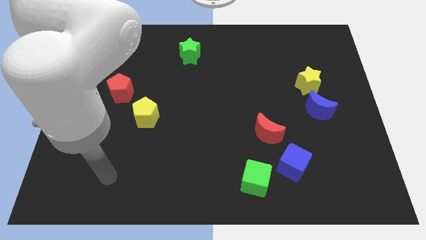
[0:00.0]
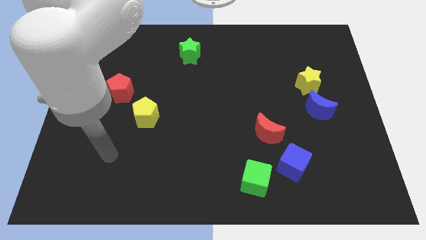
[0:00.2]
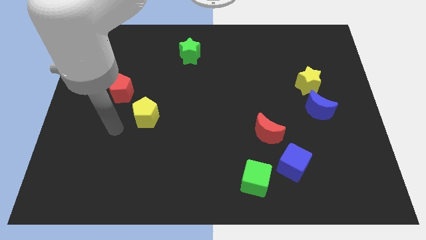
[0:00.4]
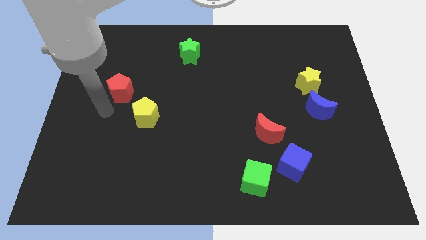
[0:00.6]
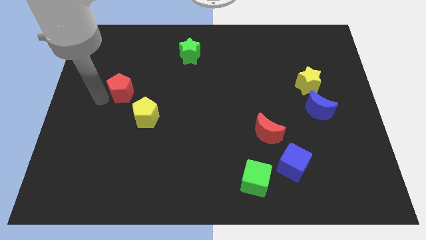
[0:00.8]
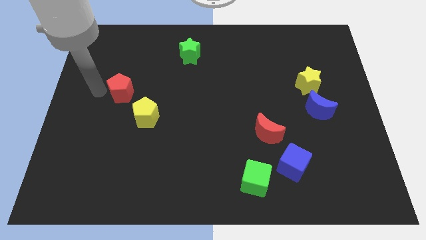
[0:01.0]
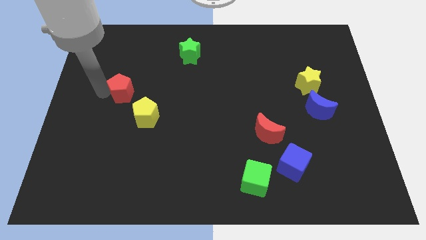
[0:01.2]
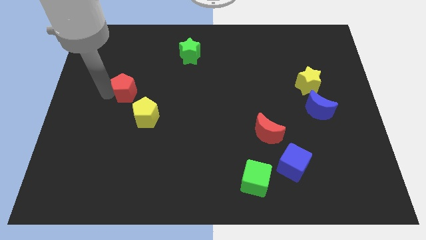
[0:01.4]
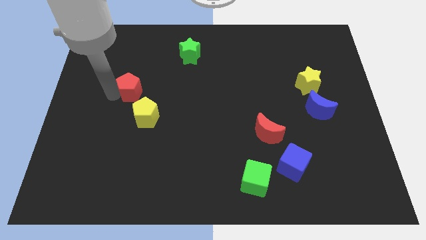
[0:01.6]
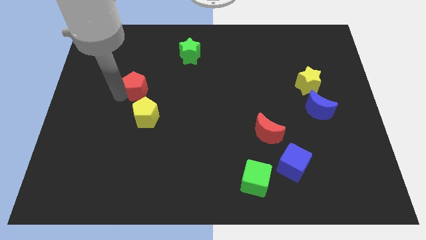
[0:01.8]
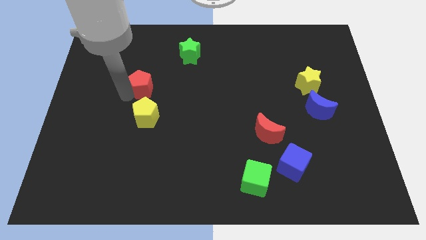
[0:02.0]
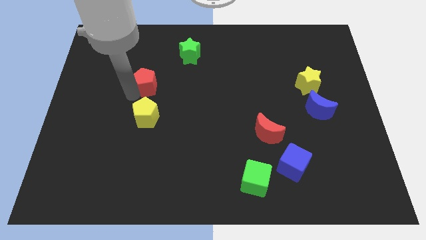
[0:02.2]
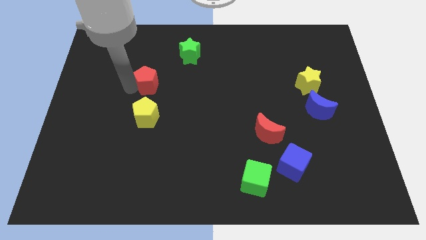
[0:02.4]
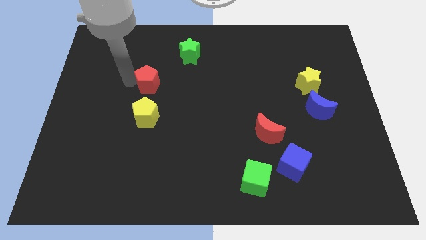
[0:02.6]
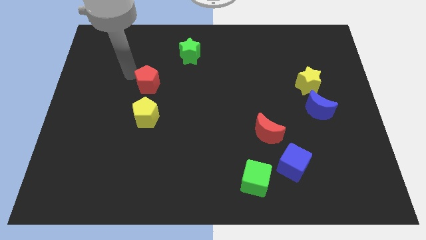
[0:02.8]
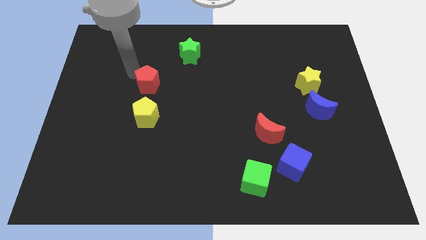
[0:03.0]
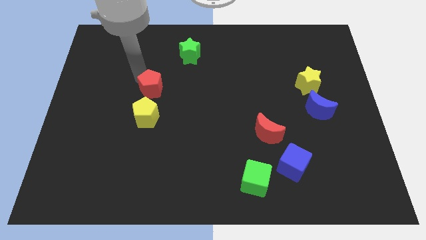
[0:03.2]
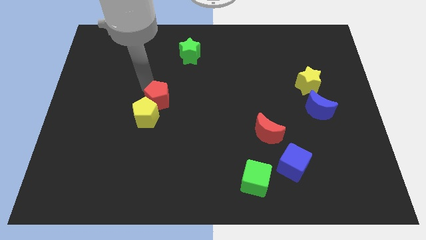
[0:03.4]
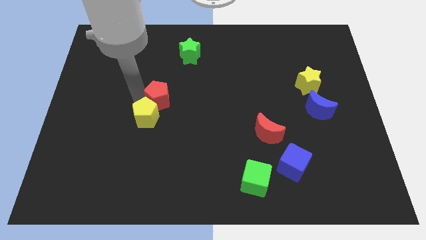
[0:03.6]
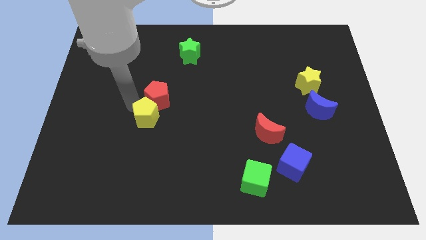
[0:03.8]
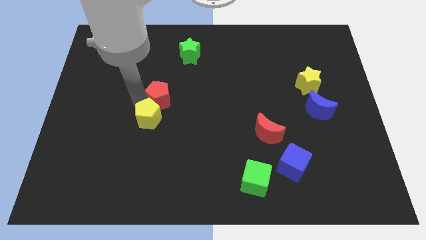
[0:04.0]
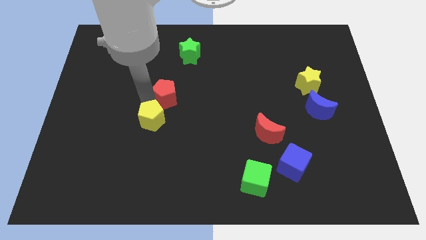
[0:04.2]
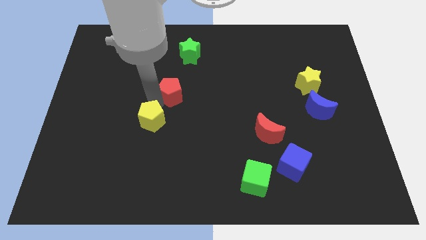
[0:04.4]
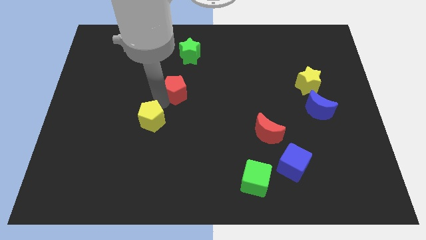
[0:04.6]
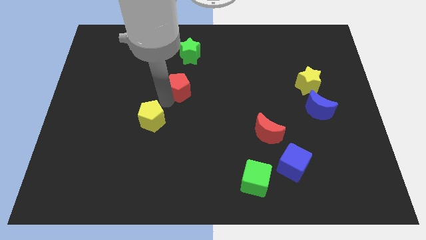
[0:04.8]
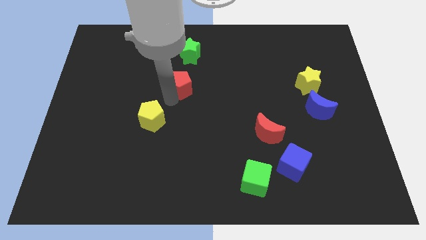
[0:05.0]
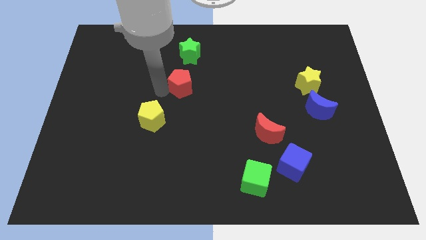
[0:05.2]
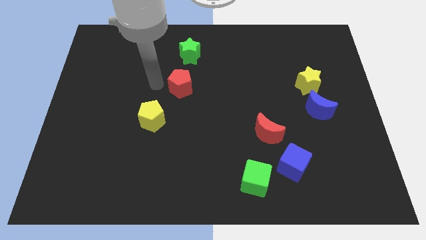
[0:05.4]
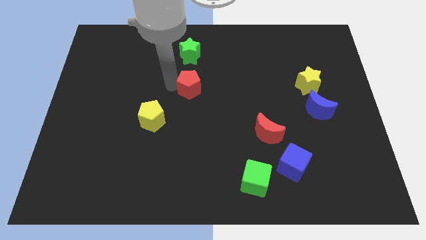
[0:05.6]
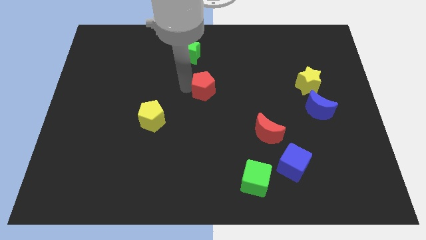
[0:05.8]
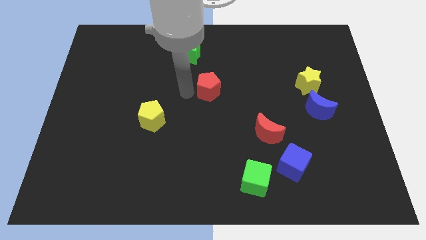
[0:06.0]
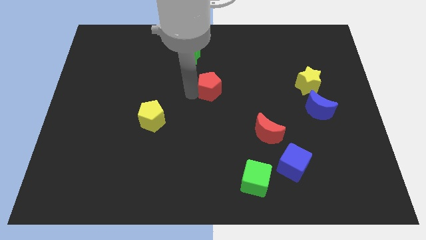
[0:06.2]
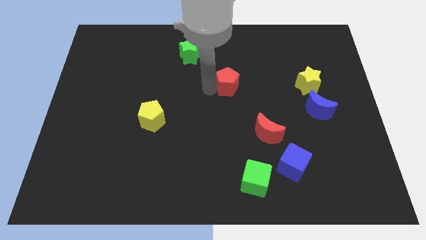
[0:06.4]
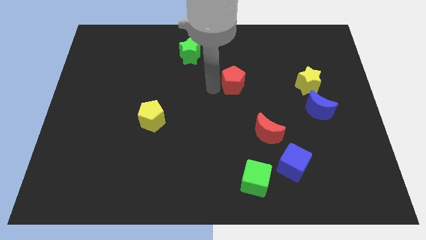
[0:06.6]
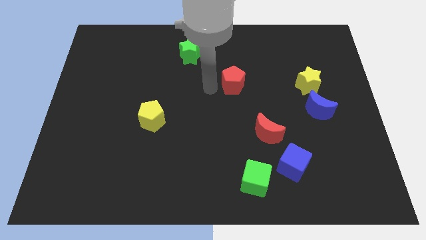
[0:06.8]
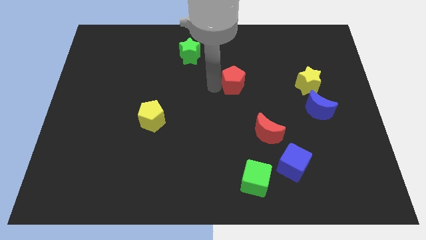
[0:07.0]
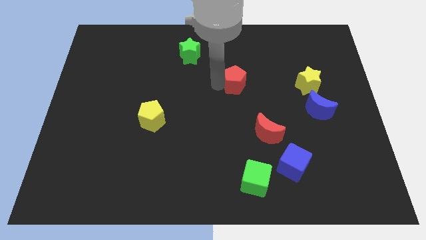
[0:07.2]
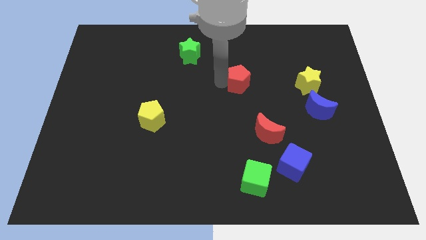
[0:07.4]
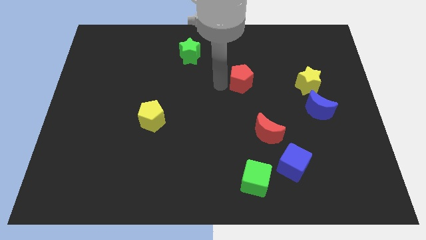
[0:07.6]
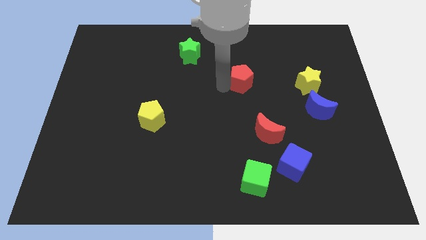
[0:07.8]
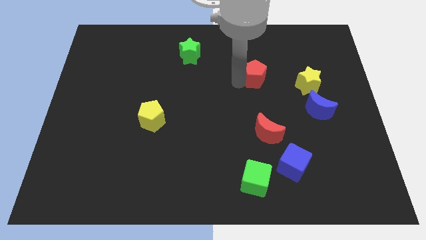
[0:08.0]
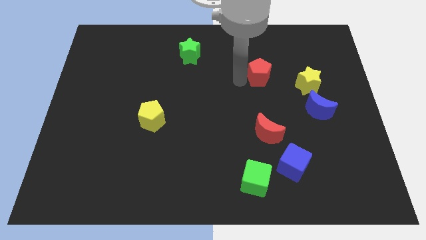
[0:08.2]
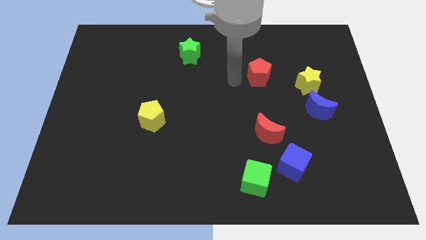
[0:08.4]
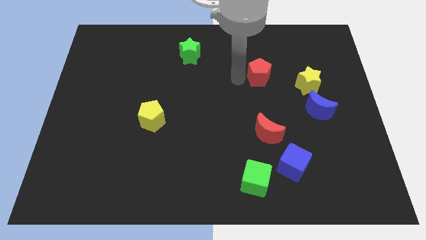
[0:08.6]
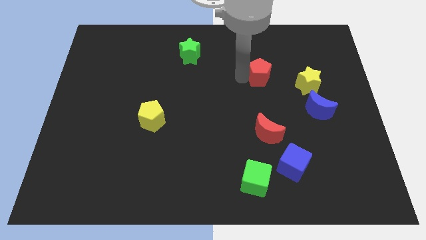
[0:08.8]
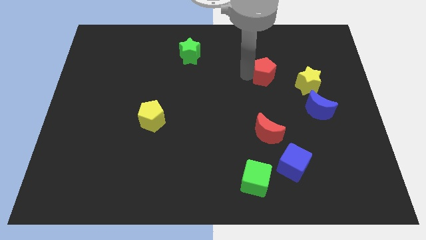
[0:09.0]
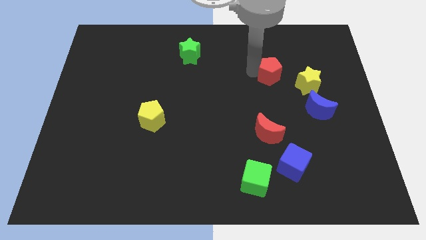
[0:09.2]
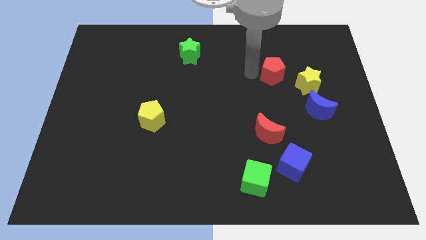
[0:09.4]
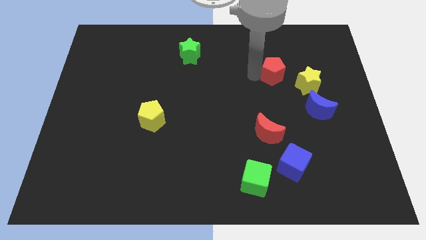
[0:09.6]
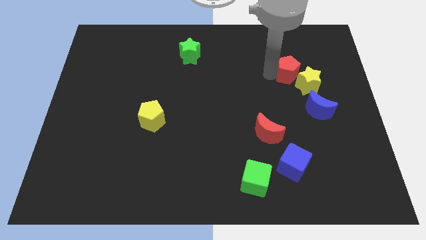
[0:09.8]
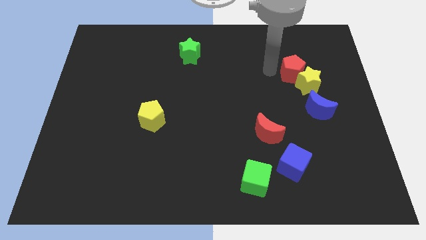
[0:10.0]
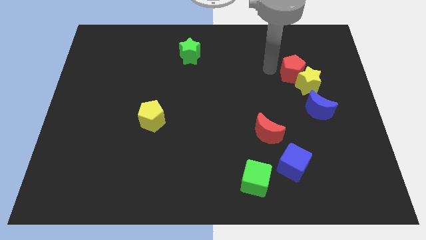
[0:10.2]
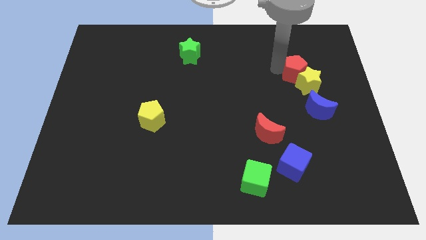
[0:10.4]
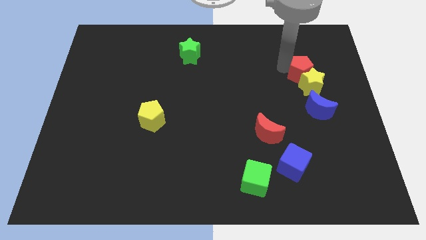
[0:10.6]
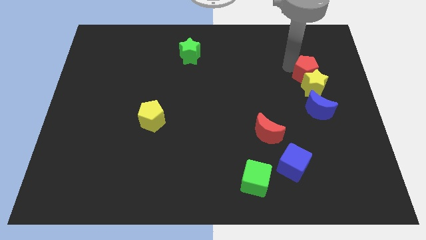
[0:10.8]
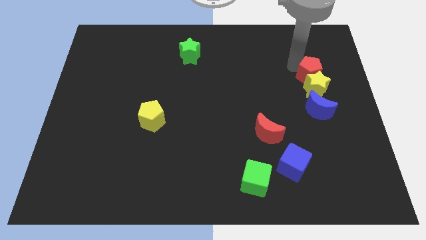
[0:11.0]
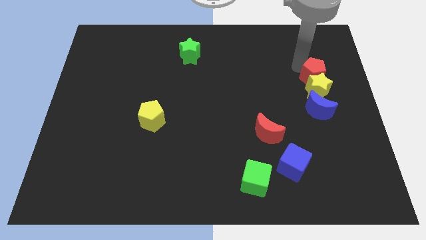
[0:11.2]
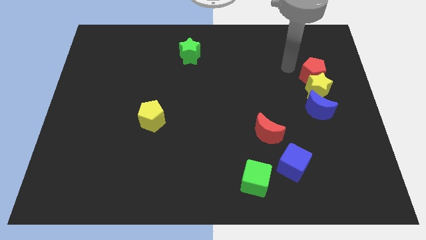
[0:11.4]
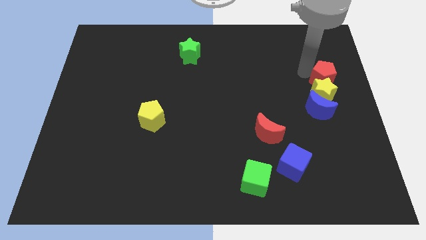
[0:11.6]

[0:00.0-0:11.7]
slide the red pentagon to the right side

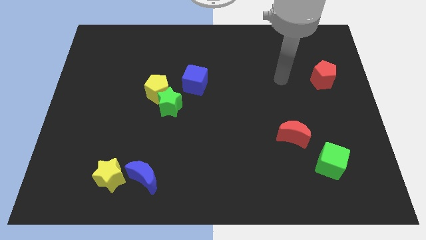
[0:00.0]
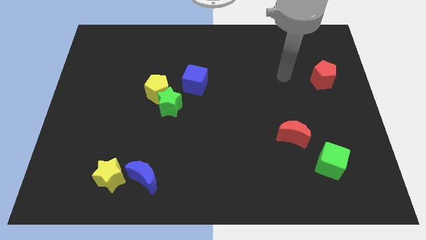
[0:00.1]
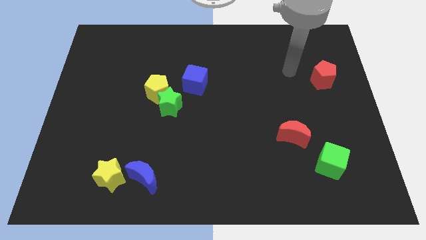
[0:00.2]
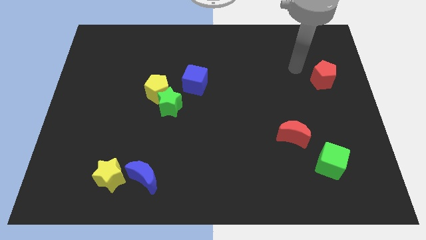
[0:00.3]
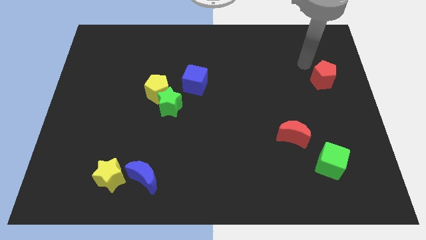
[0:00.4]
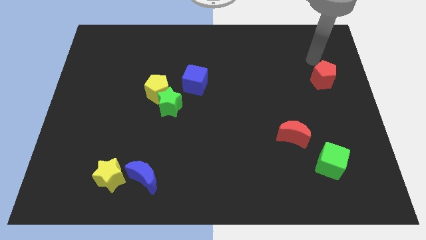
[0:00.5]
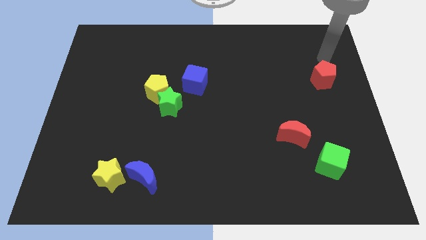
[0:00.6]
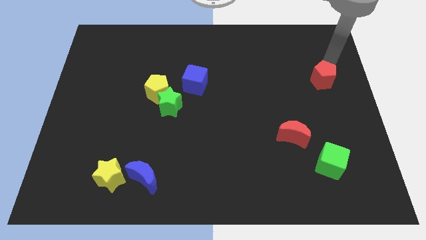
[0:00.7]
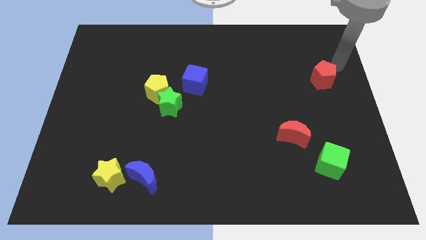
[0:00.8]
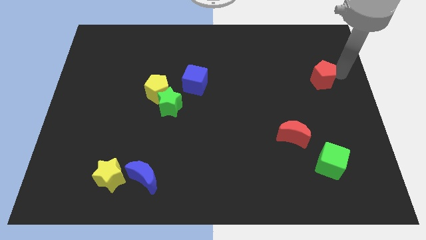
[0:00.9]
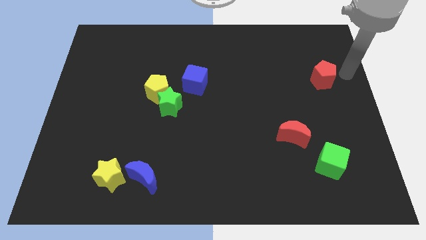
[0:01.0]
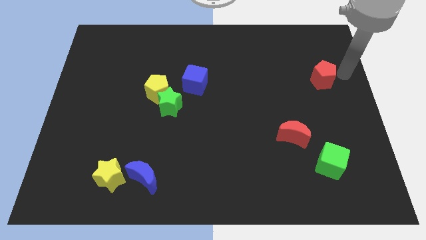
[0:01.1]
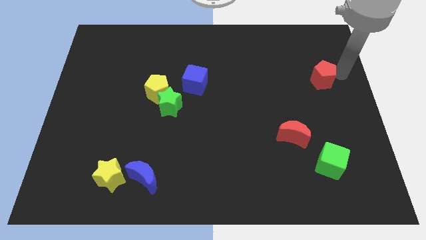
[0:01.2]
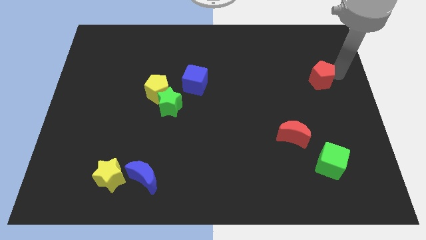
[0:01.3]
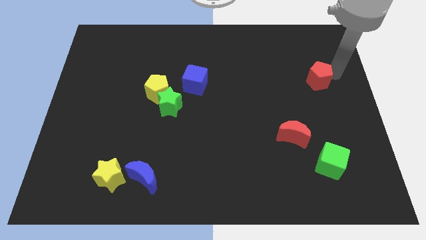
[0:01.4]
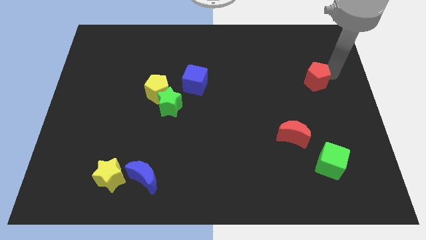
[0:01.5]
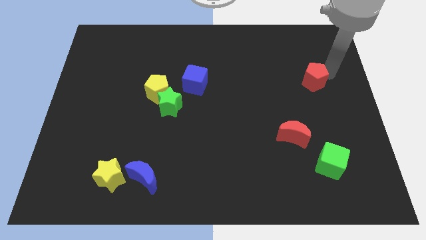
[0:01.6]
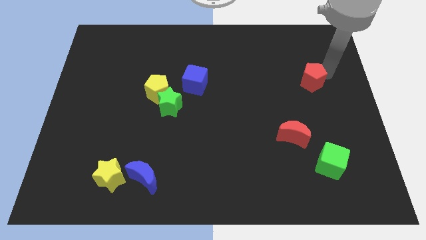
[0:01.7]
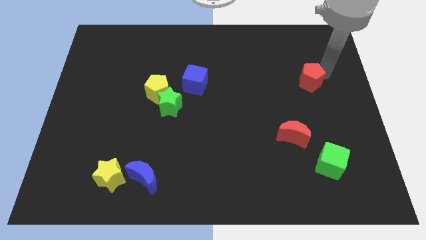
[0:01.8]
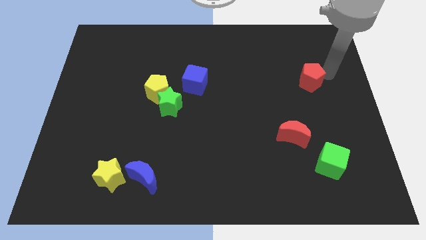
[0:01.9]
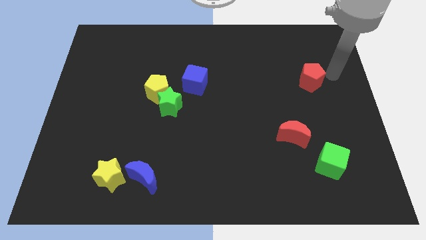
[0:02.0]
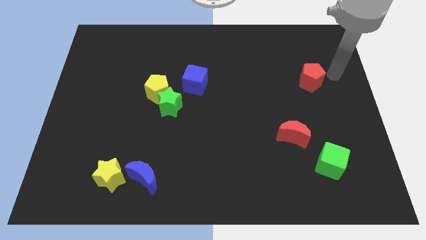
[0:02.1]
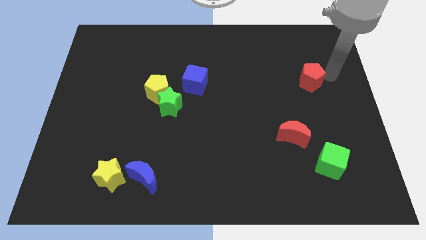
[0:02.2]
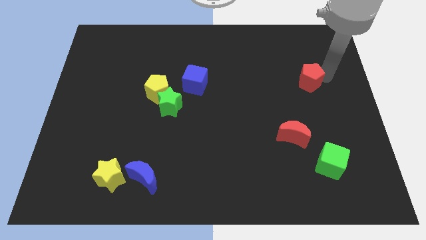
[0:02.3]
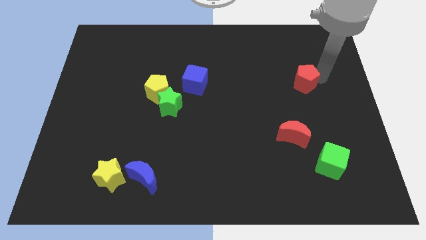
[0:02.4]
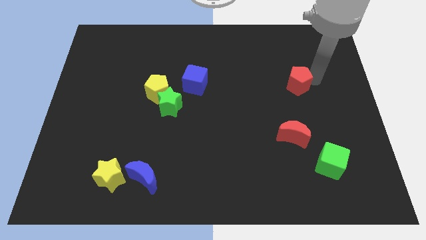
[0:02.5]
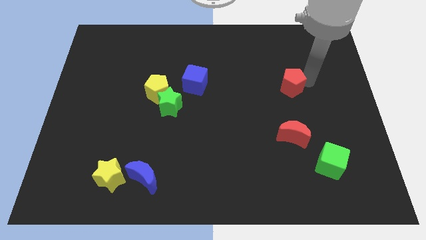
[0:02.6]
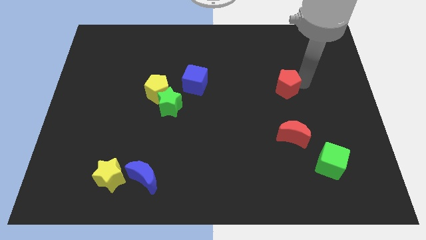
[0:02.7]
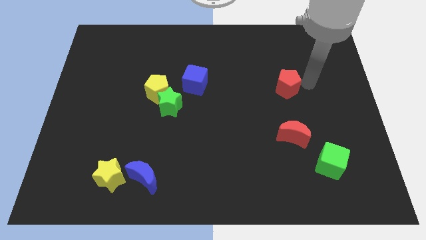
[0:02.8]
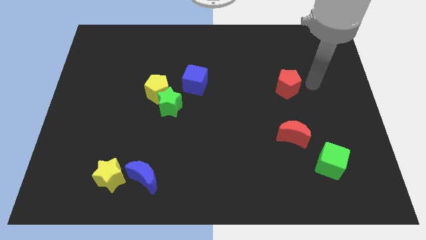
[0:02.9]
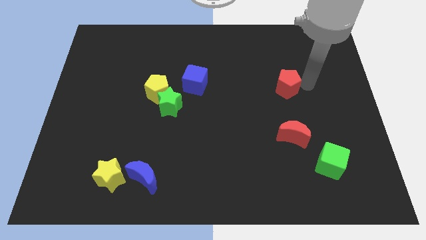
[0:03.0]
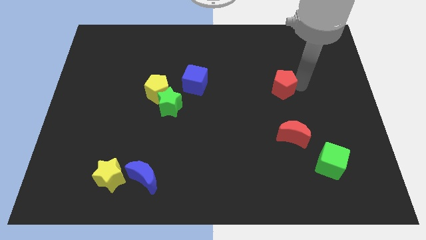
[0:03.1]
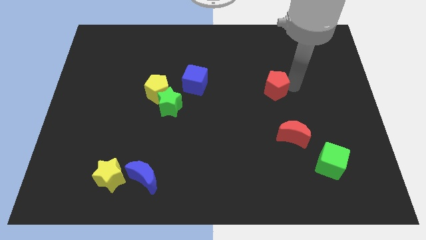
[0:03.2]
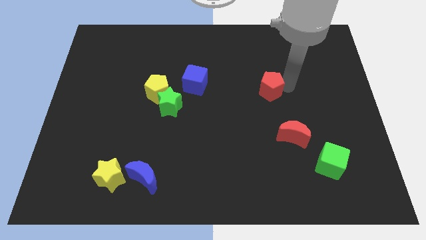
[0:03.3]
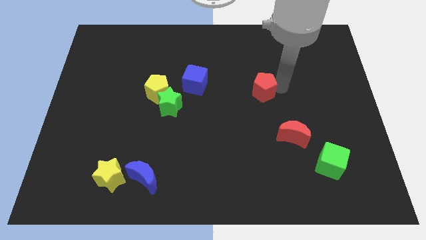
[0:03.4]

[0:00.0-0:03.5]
put the red pentagon to the middle of the board
